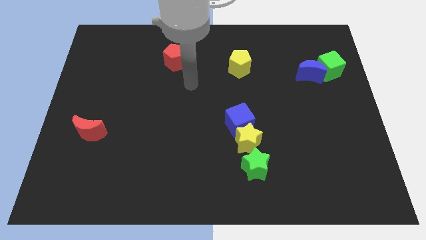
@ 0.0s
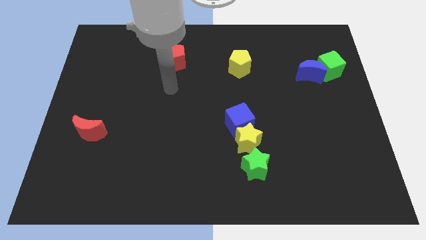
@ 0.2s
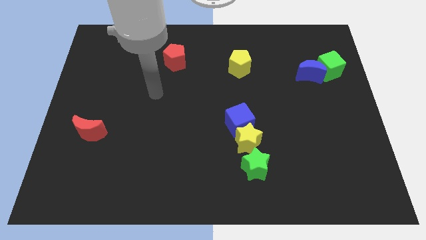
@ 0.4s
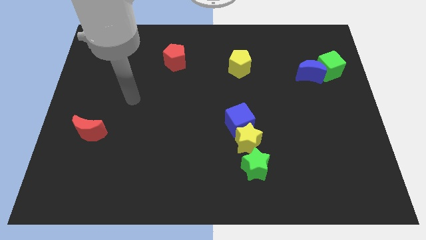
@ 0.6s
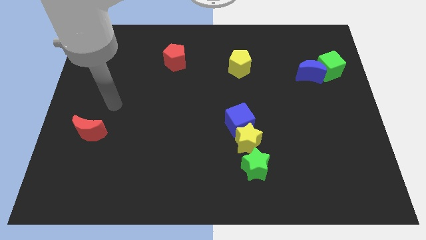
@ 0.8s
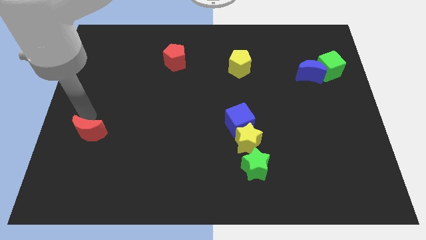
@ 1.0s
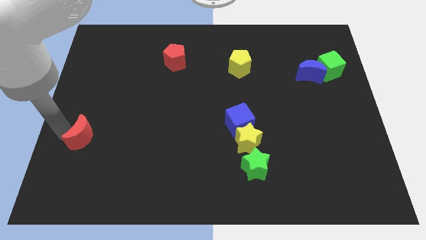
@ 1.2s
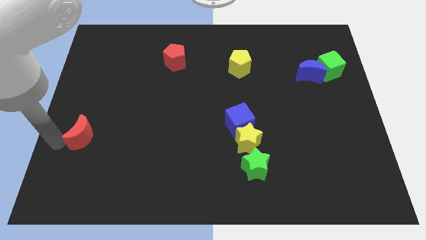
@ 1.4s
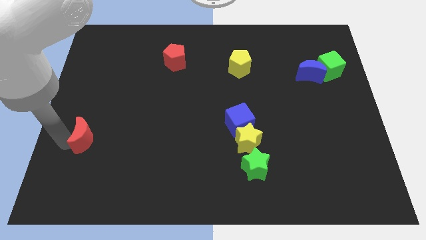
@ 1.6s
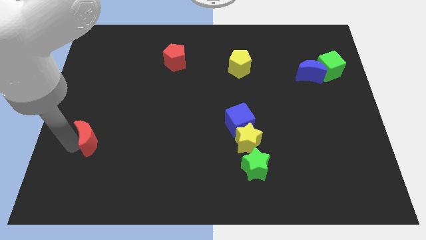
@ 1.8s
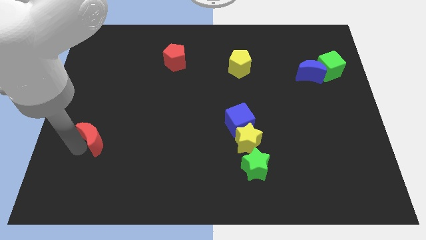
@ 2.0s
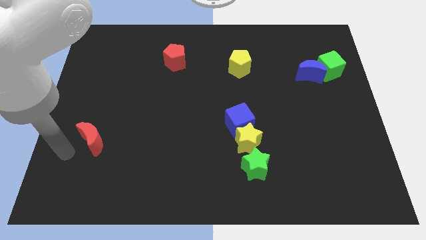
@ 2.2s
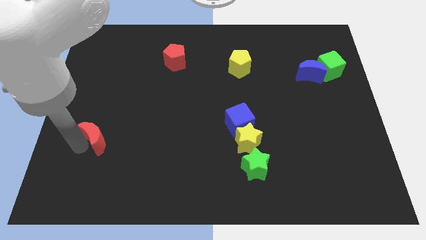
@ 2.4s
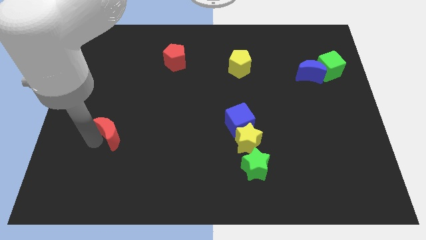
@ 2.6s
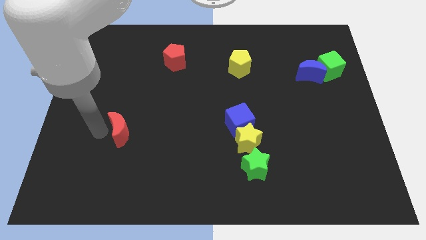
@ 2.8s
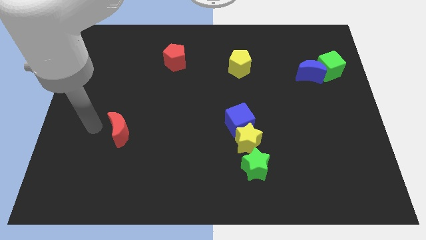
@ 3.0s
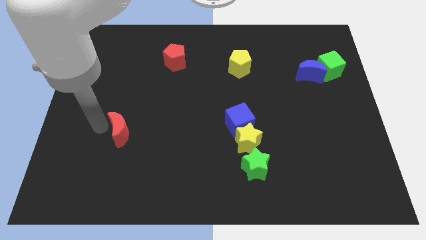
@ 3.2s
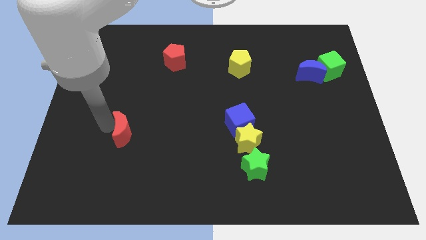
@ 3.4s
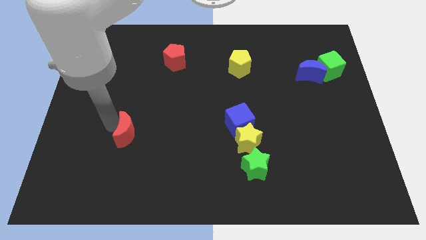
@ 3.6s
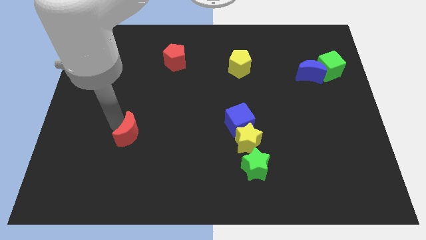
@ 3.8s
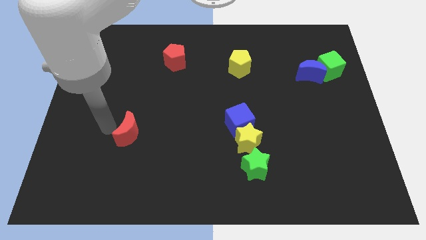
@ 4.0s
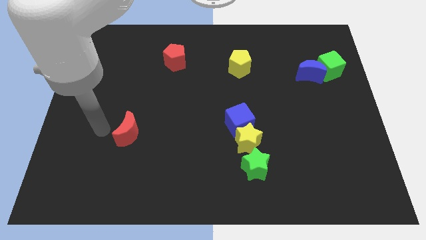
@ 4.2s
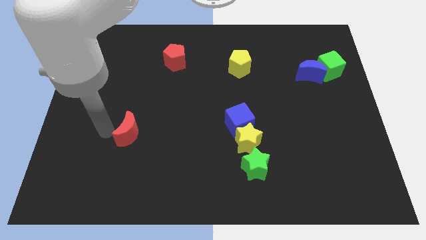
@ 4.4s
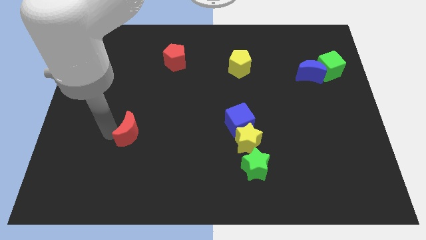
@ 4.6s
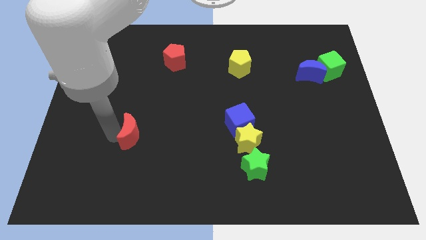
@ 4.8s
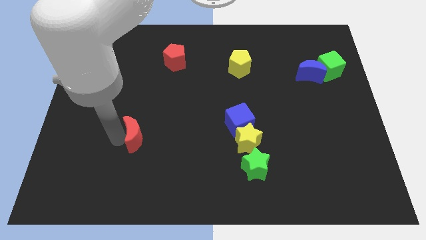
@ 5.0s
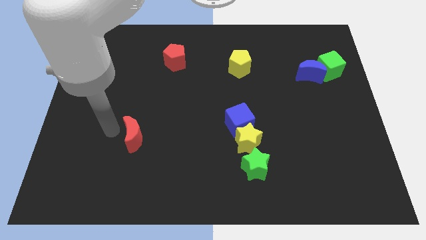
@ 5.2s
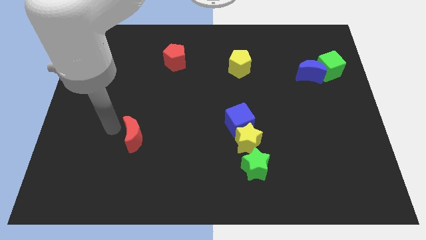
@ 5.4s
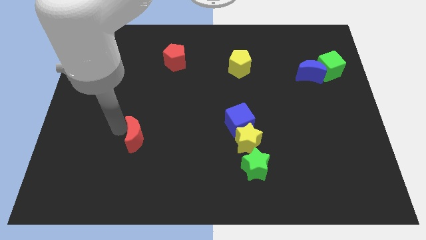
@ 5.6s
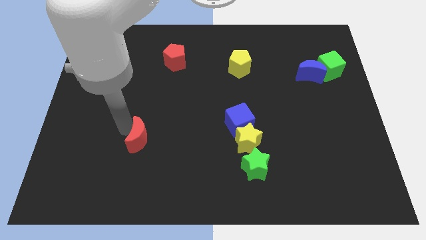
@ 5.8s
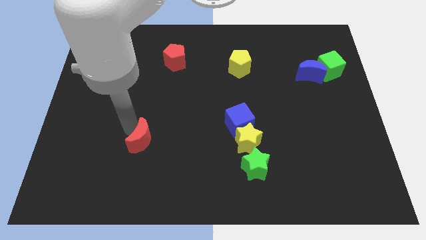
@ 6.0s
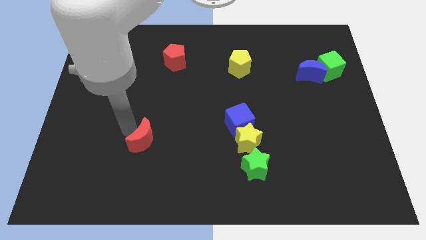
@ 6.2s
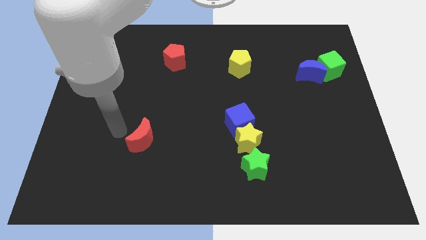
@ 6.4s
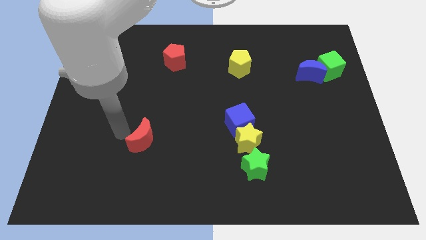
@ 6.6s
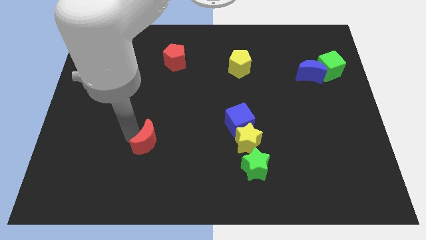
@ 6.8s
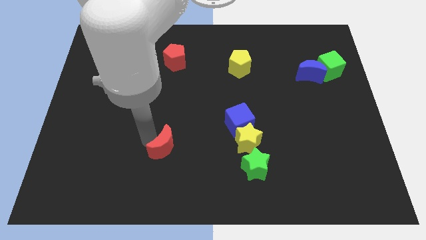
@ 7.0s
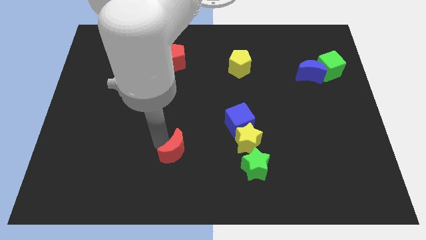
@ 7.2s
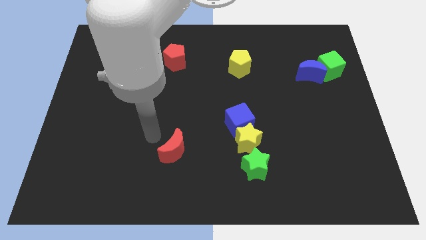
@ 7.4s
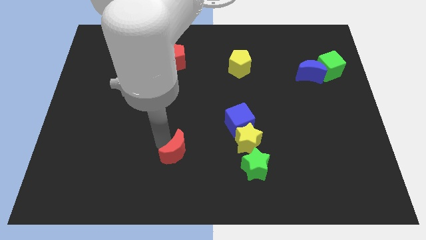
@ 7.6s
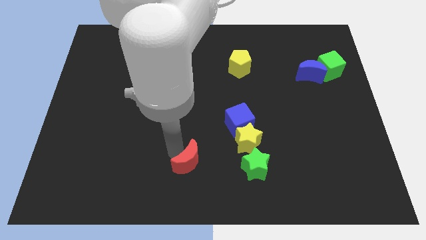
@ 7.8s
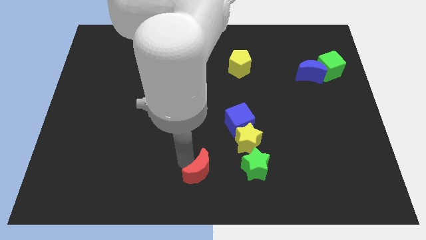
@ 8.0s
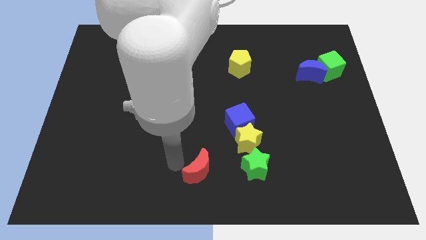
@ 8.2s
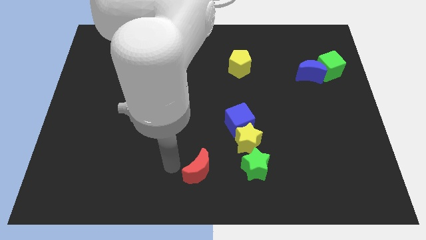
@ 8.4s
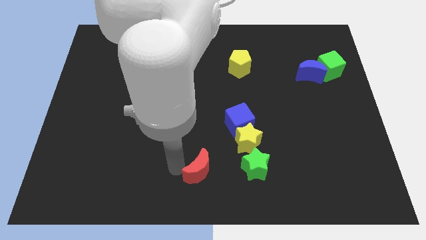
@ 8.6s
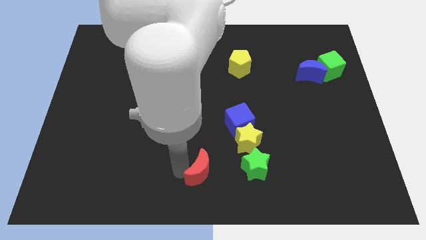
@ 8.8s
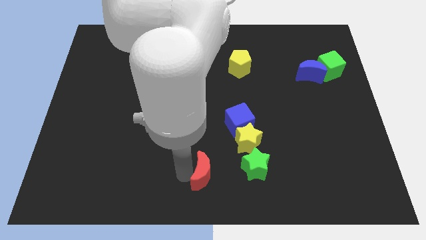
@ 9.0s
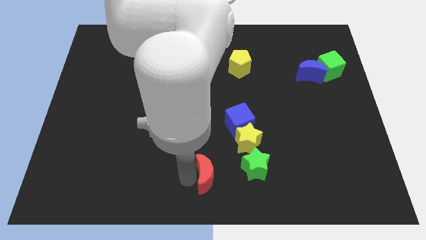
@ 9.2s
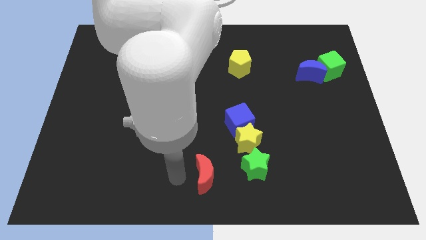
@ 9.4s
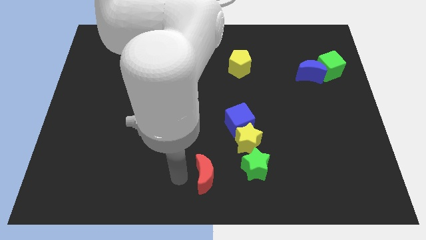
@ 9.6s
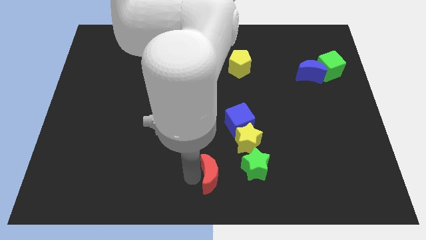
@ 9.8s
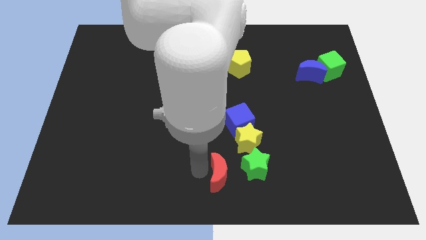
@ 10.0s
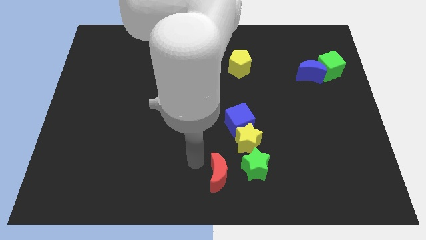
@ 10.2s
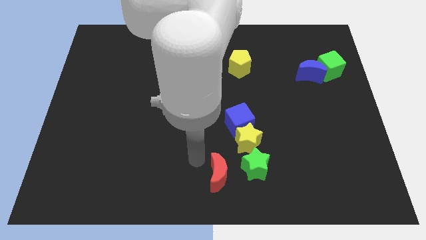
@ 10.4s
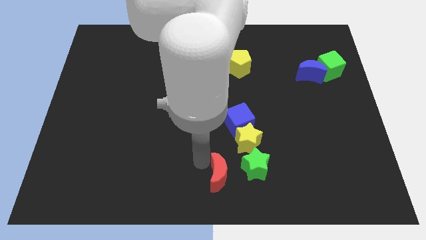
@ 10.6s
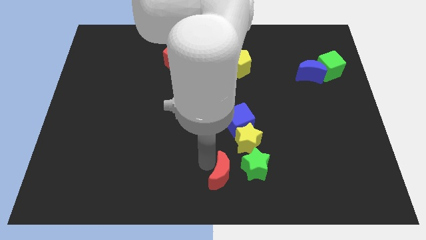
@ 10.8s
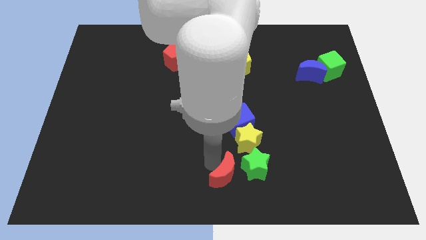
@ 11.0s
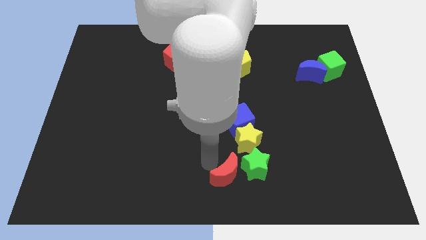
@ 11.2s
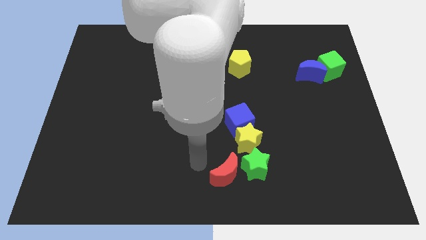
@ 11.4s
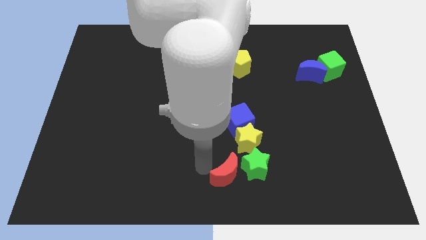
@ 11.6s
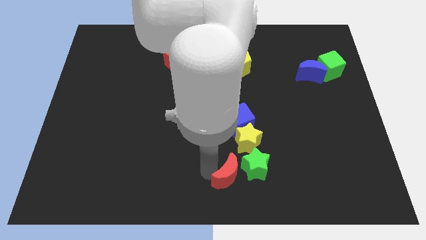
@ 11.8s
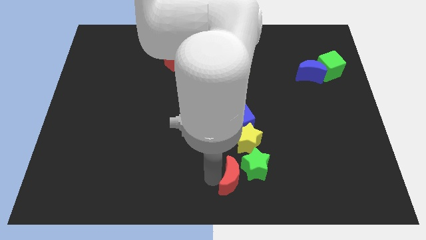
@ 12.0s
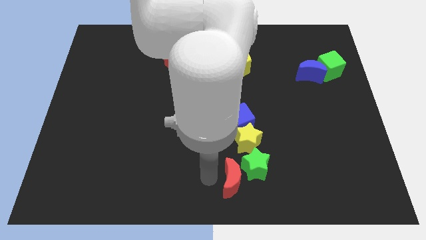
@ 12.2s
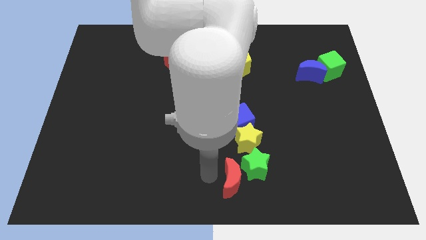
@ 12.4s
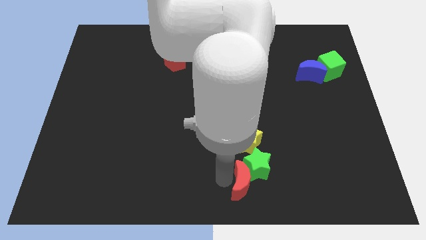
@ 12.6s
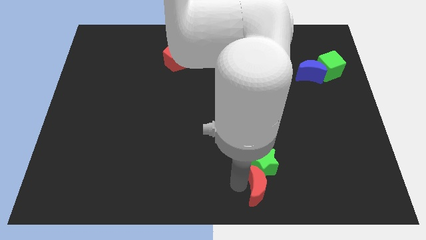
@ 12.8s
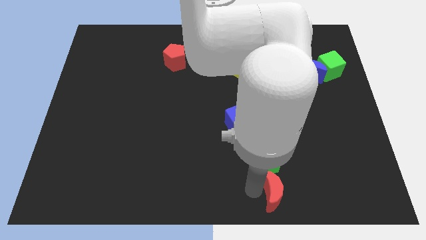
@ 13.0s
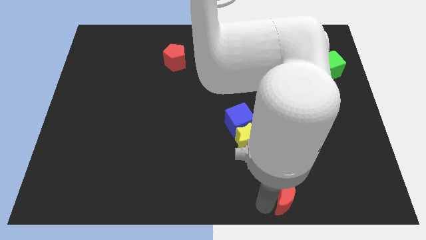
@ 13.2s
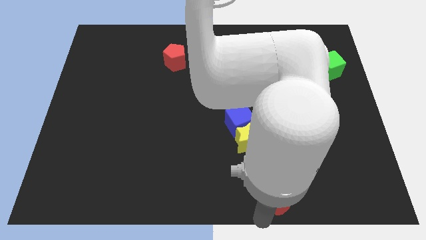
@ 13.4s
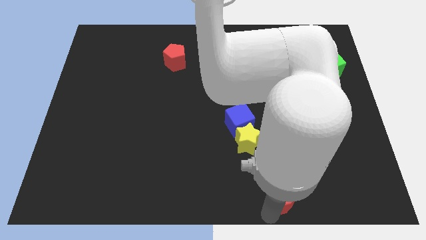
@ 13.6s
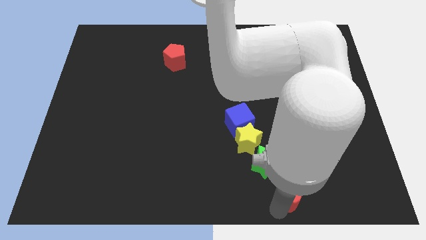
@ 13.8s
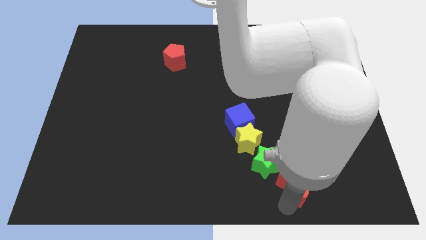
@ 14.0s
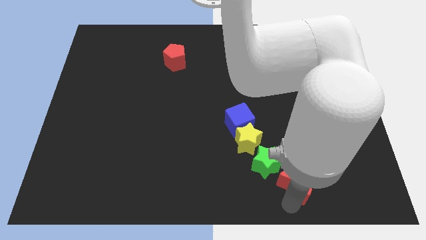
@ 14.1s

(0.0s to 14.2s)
push the red moon right of the green star

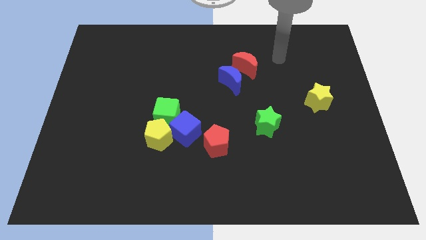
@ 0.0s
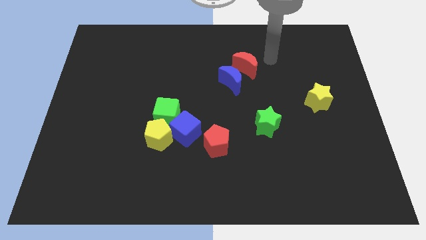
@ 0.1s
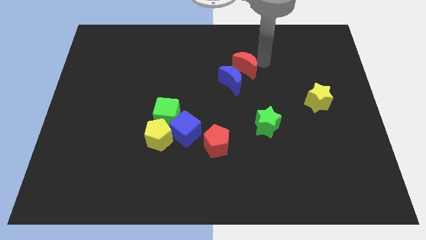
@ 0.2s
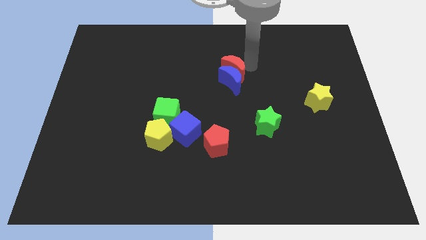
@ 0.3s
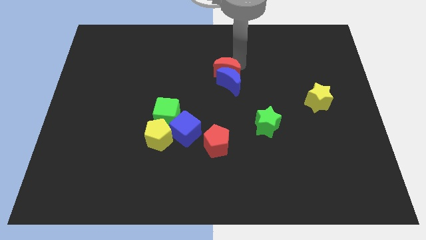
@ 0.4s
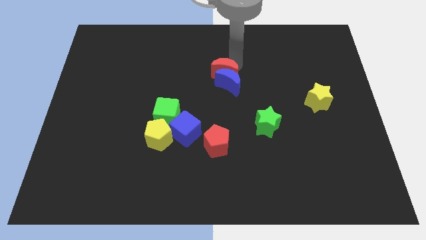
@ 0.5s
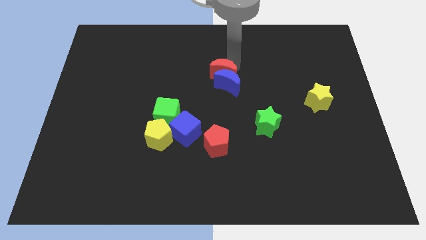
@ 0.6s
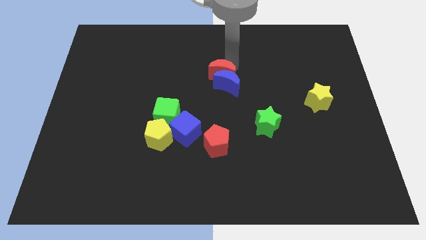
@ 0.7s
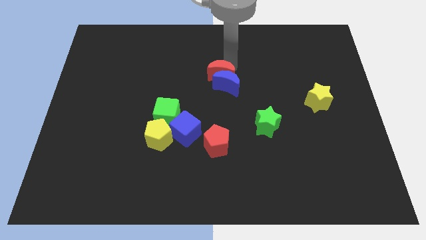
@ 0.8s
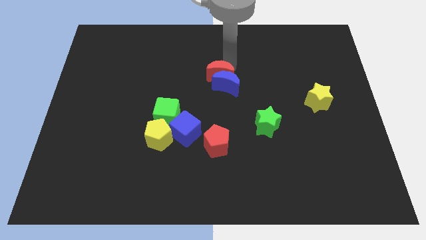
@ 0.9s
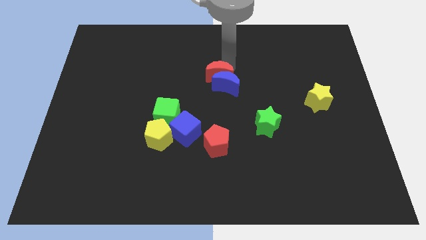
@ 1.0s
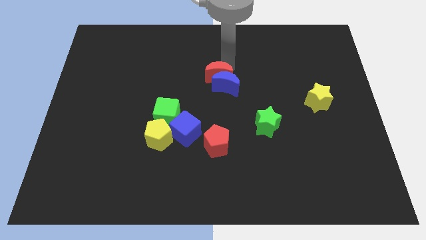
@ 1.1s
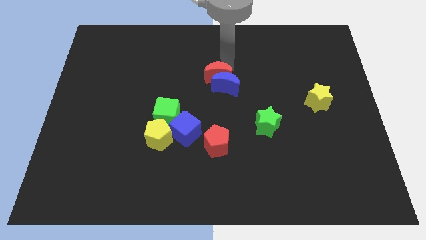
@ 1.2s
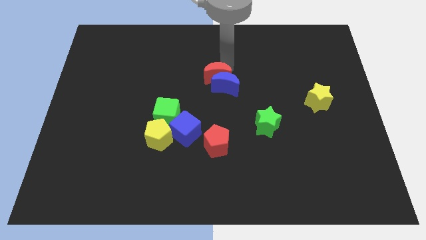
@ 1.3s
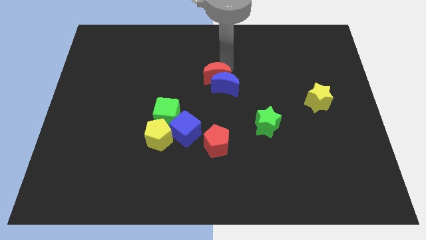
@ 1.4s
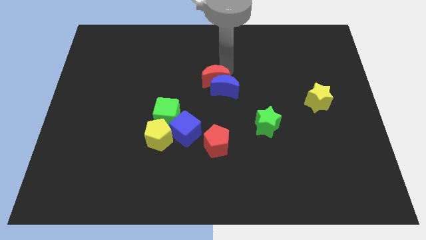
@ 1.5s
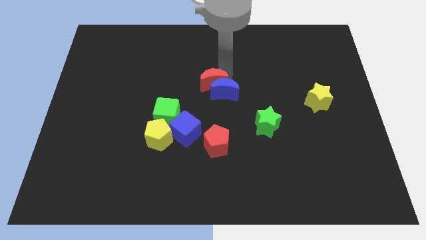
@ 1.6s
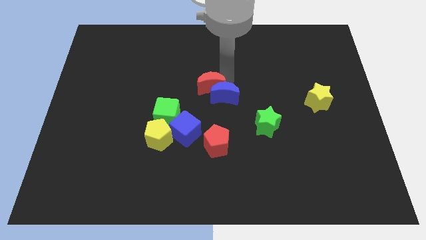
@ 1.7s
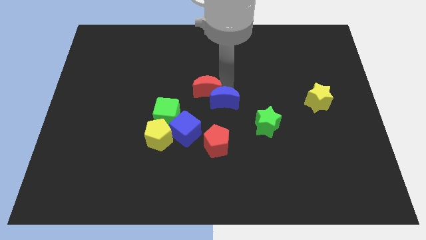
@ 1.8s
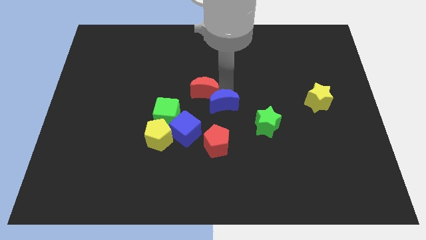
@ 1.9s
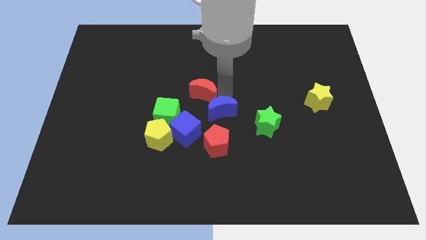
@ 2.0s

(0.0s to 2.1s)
put the blue moon to the left side of the green star
